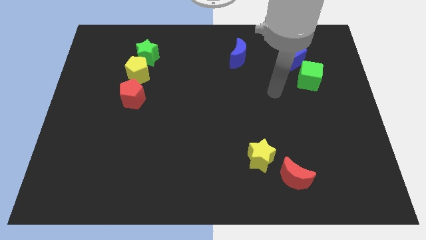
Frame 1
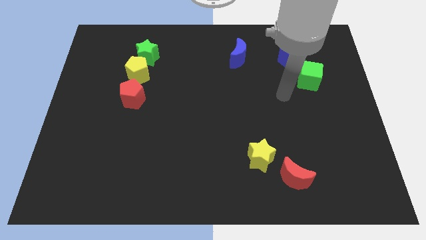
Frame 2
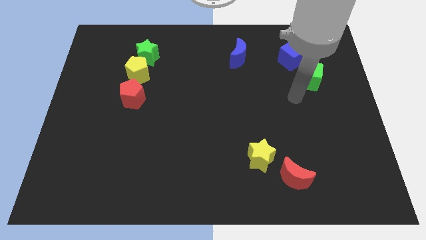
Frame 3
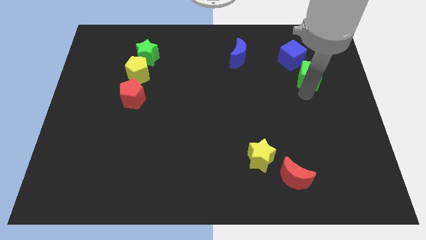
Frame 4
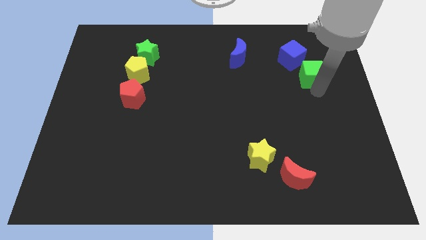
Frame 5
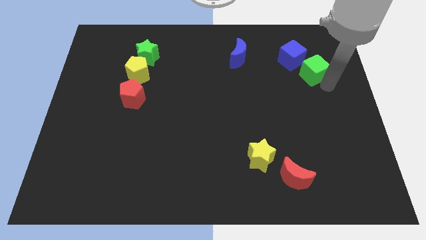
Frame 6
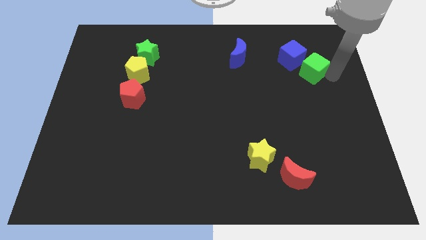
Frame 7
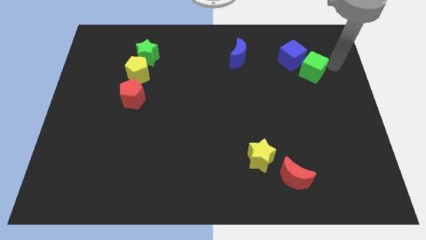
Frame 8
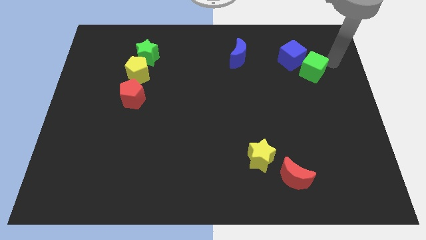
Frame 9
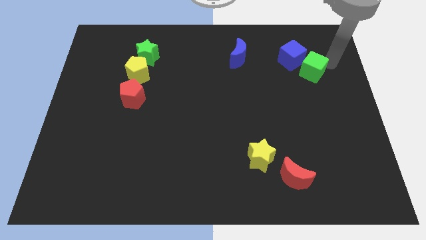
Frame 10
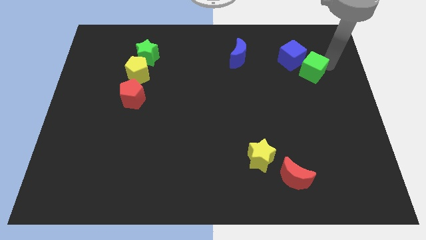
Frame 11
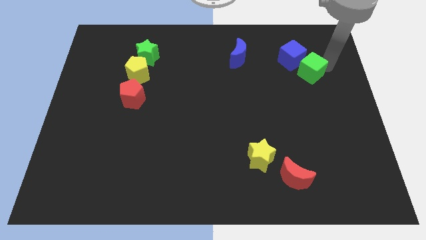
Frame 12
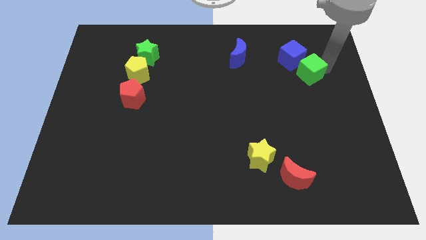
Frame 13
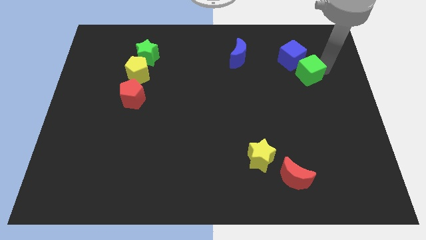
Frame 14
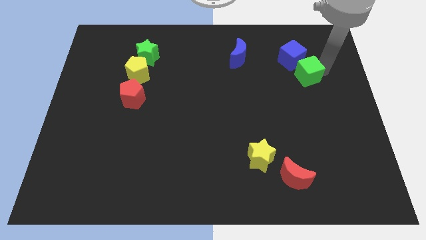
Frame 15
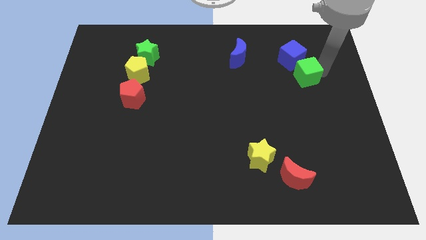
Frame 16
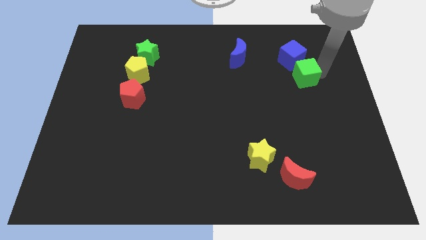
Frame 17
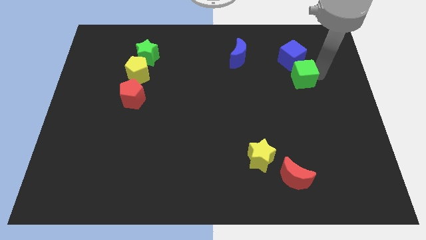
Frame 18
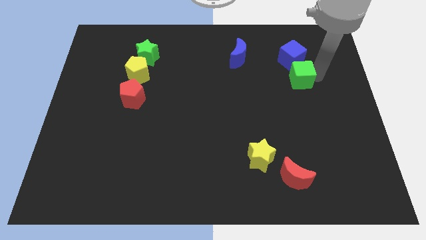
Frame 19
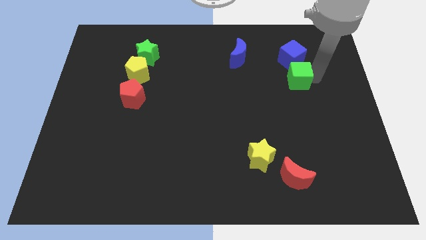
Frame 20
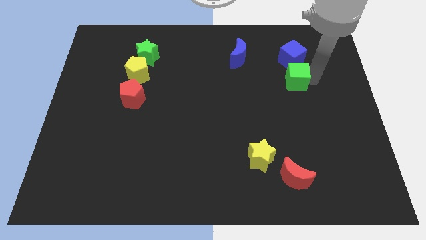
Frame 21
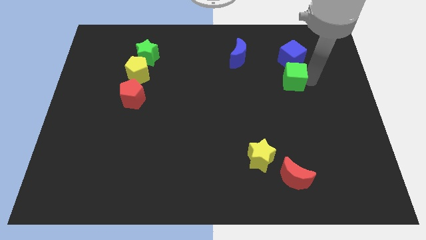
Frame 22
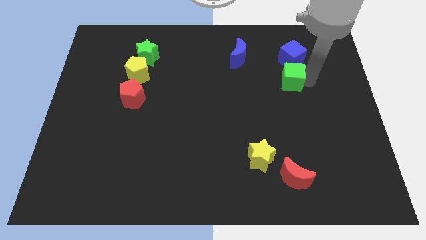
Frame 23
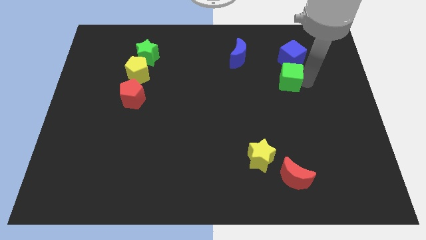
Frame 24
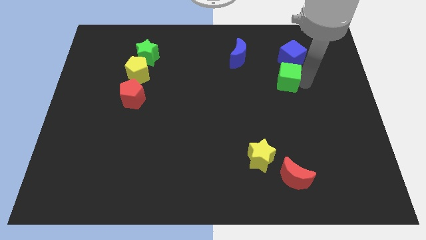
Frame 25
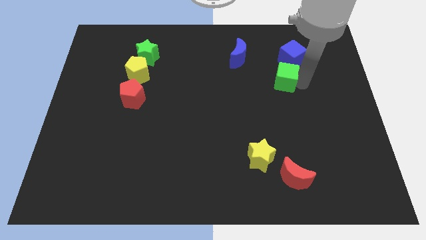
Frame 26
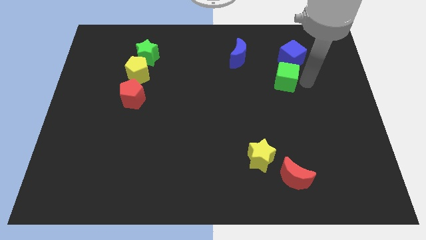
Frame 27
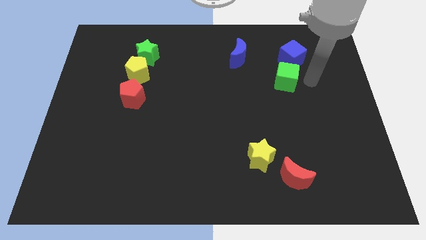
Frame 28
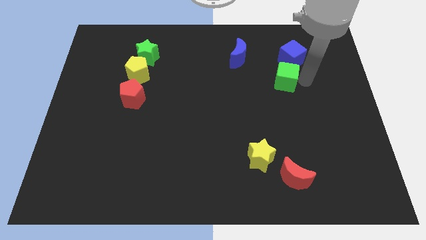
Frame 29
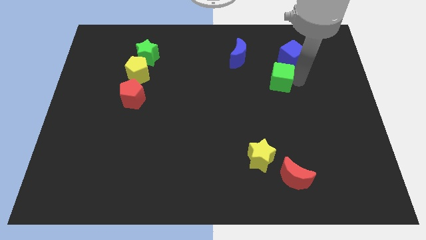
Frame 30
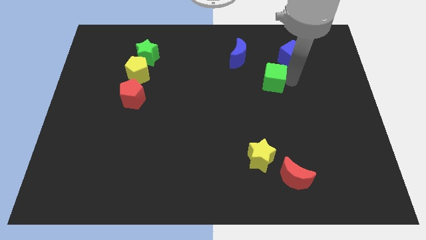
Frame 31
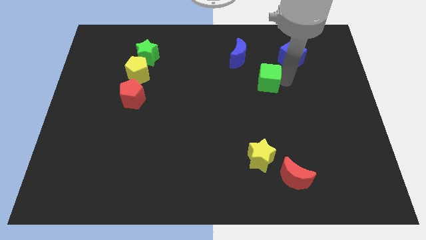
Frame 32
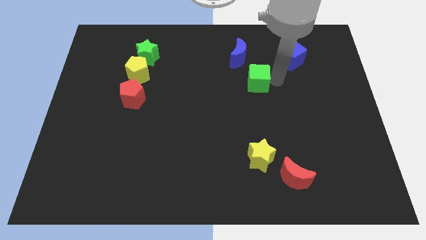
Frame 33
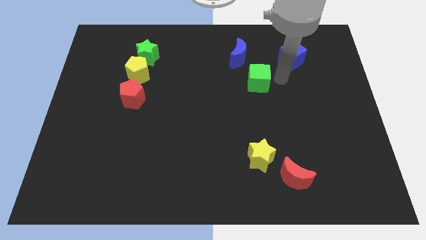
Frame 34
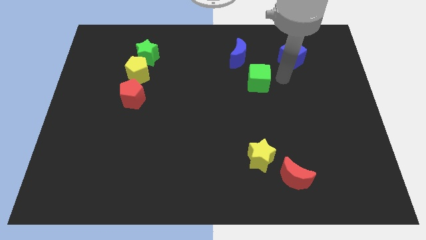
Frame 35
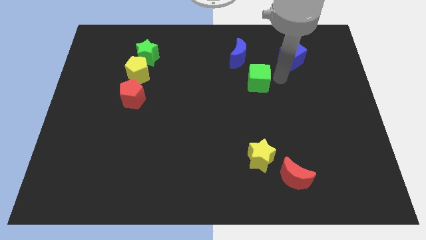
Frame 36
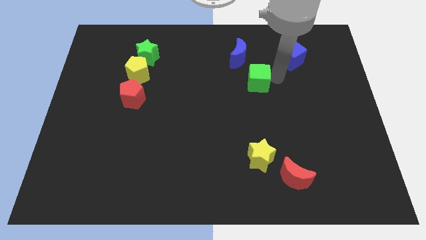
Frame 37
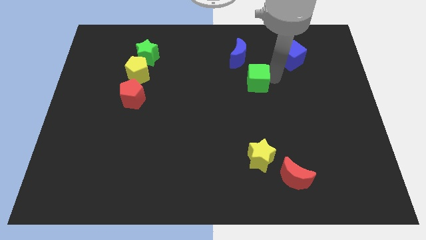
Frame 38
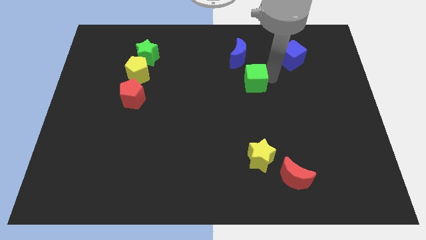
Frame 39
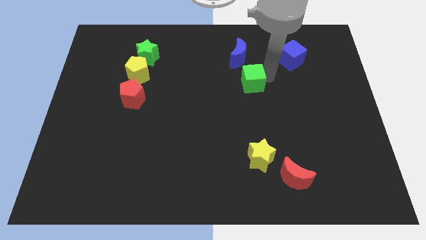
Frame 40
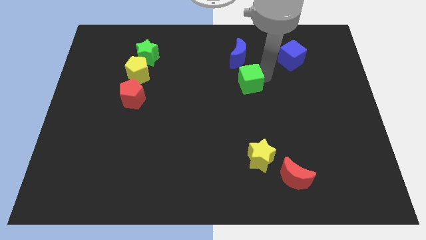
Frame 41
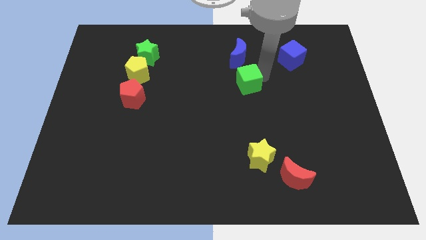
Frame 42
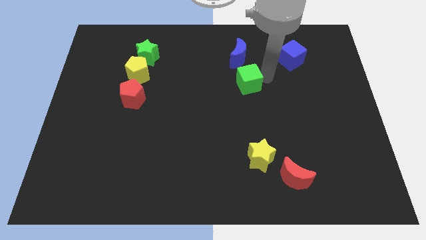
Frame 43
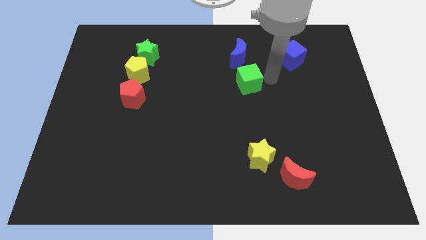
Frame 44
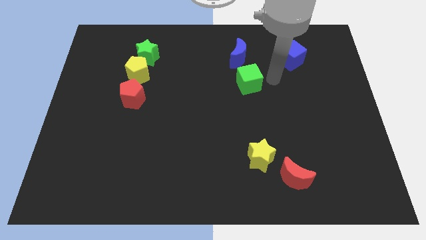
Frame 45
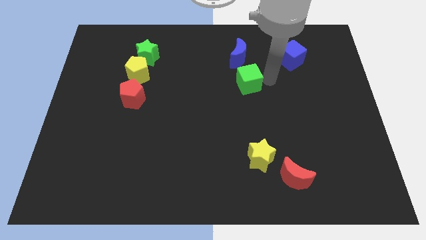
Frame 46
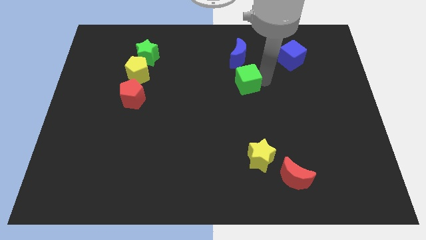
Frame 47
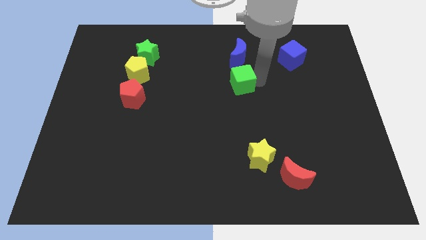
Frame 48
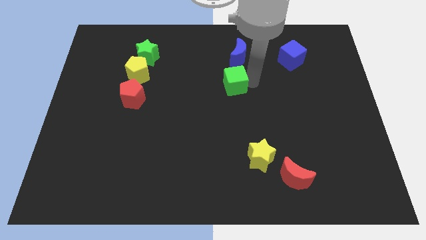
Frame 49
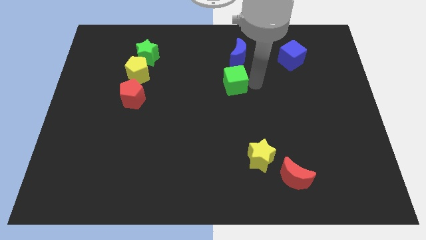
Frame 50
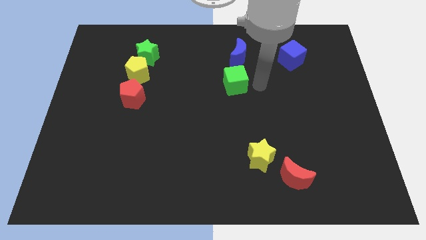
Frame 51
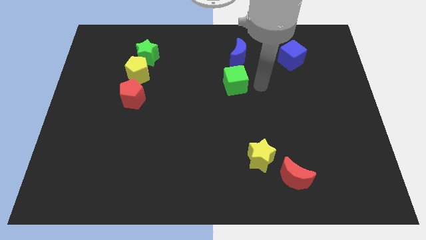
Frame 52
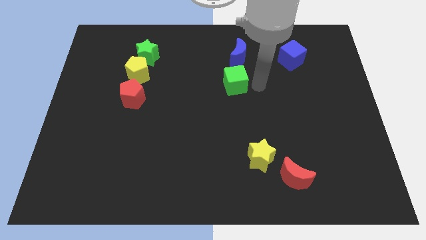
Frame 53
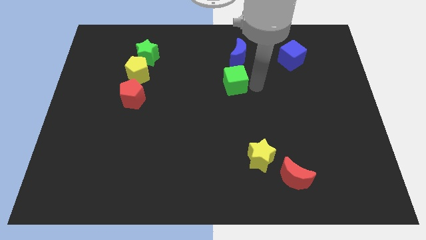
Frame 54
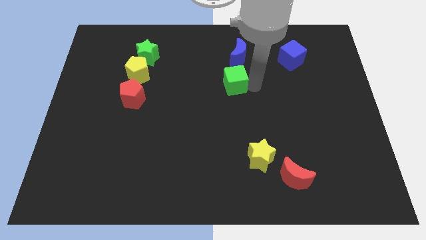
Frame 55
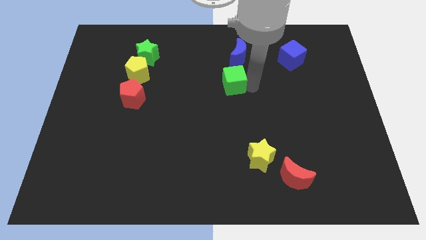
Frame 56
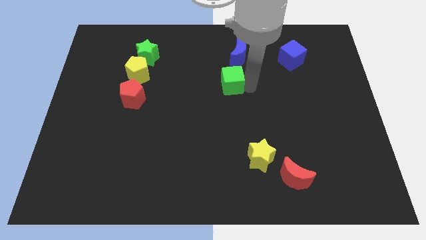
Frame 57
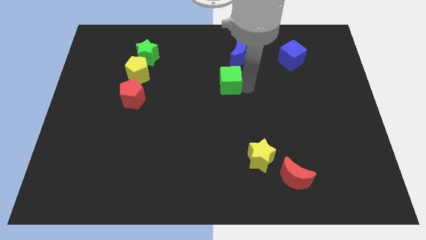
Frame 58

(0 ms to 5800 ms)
slide the green cube to the left

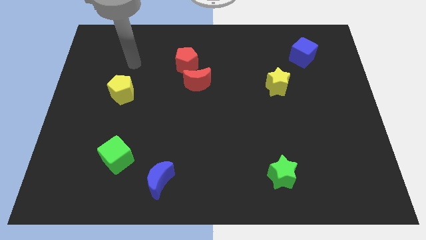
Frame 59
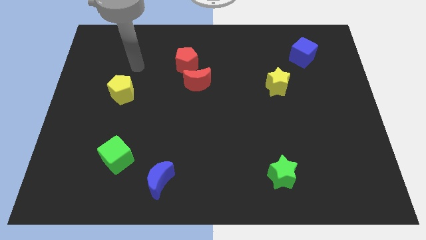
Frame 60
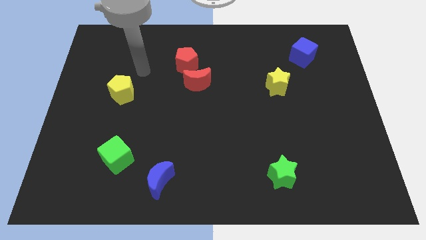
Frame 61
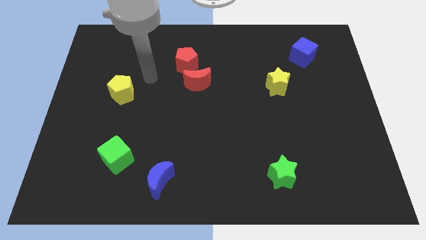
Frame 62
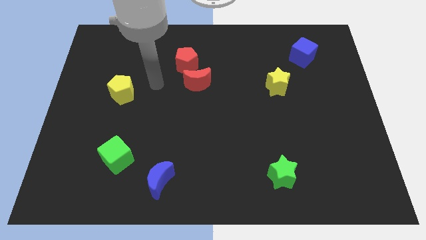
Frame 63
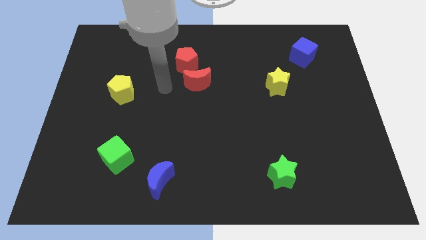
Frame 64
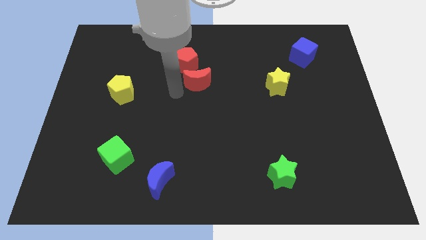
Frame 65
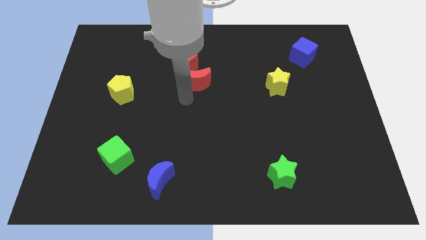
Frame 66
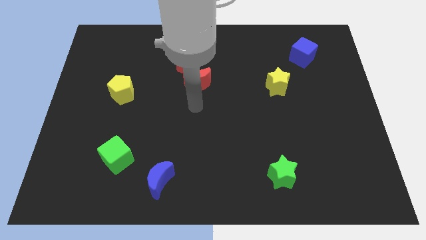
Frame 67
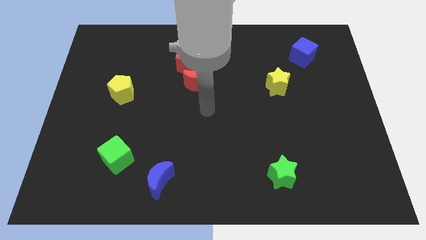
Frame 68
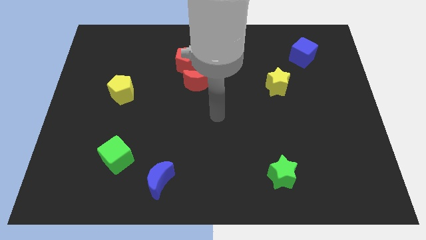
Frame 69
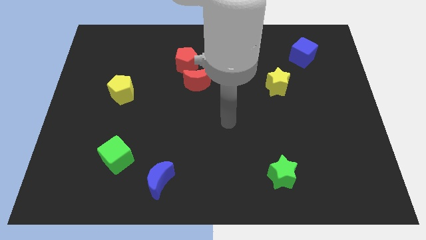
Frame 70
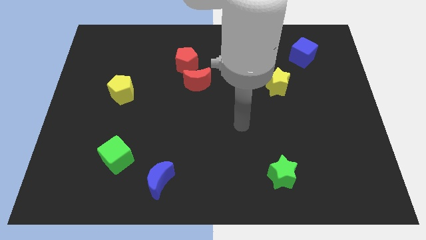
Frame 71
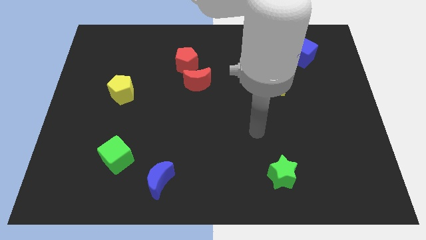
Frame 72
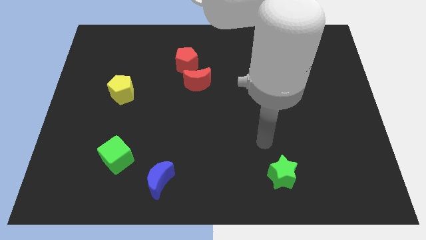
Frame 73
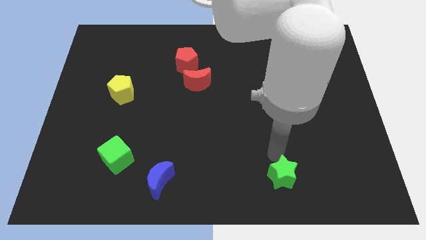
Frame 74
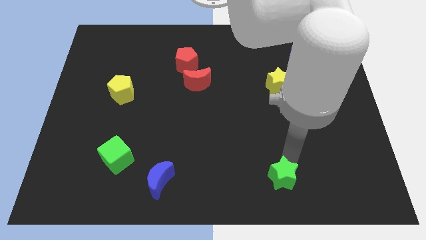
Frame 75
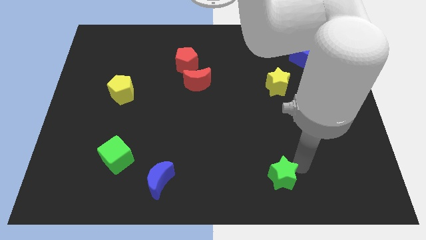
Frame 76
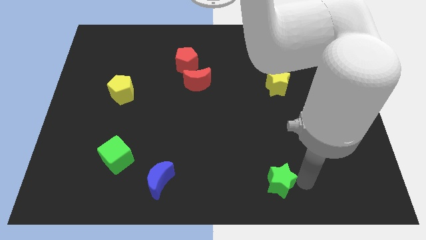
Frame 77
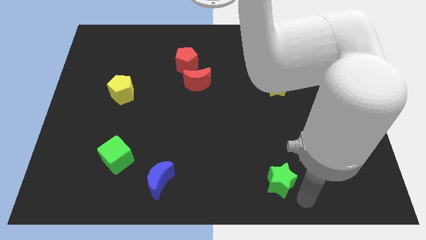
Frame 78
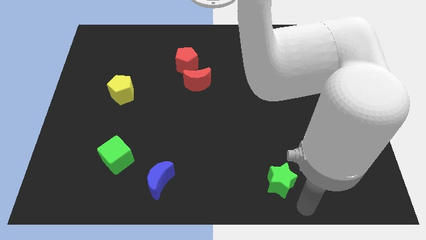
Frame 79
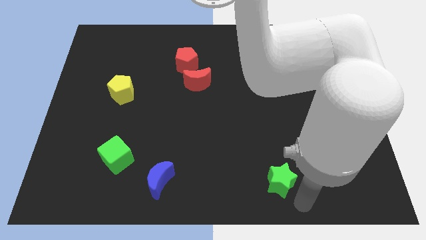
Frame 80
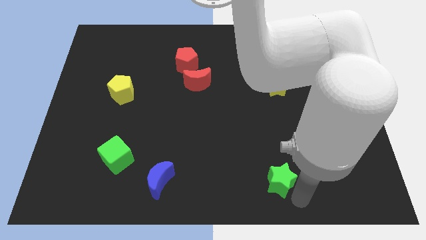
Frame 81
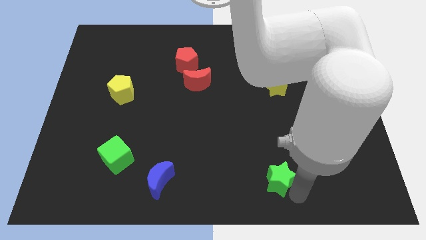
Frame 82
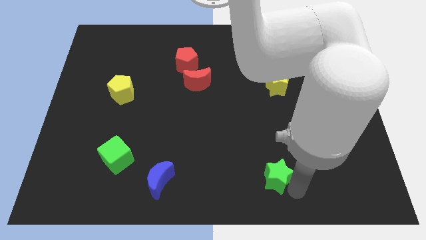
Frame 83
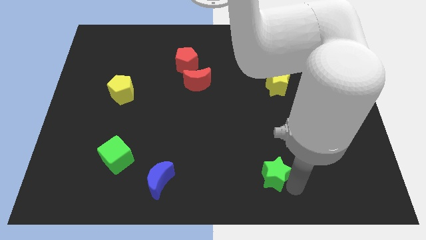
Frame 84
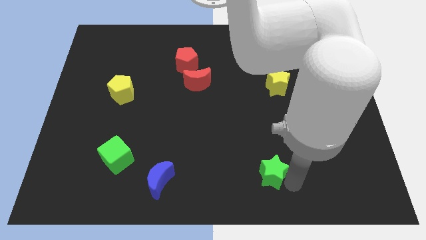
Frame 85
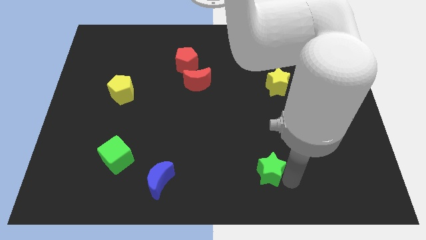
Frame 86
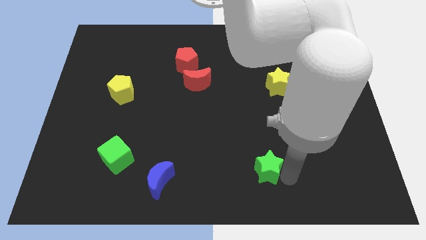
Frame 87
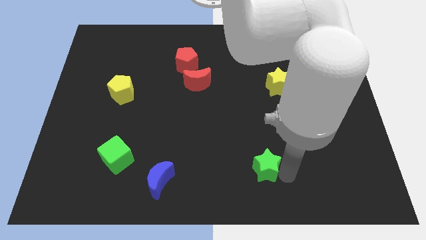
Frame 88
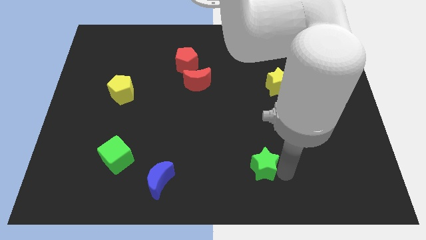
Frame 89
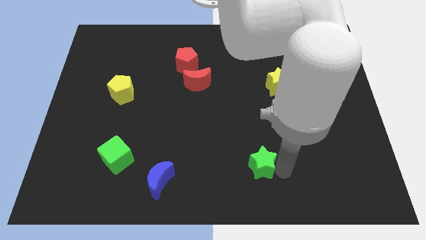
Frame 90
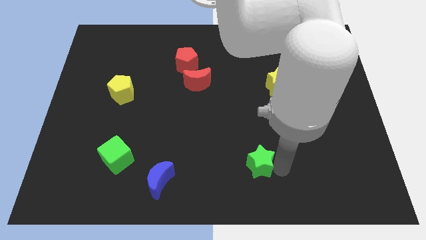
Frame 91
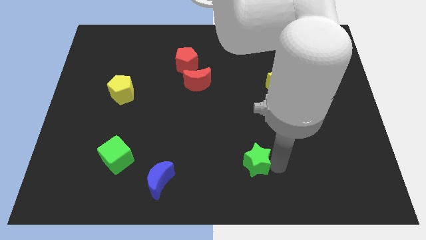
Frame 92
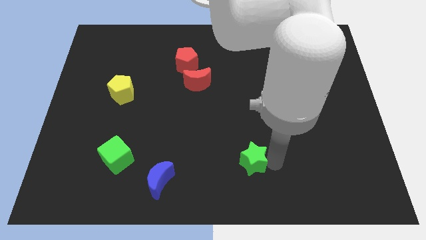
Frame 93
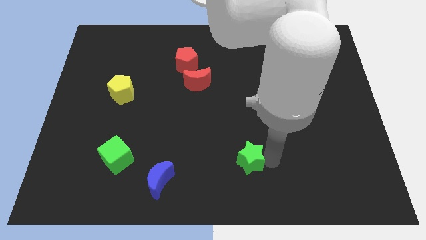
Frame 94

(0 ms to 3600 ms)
push the green star upwards and then to the left somewhat
